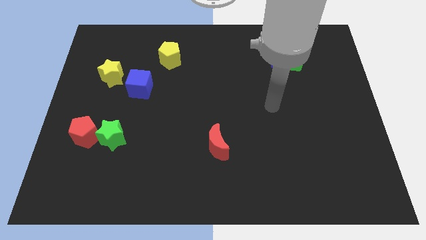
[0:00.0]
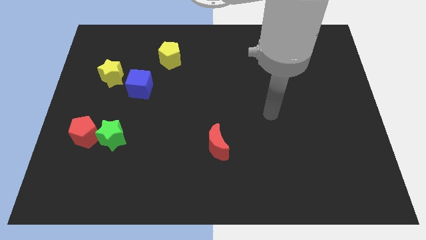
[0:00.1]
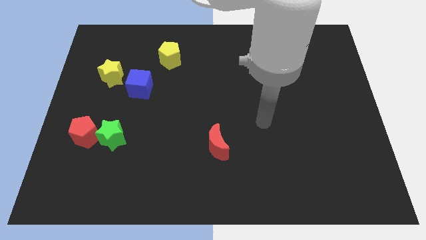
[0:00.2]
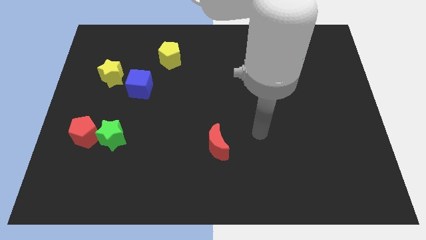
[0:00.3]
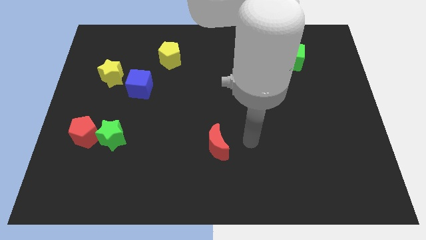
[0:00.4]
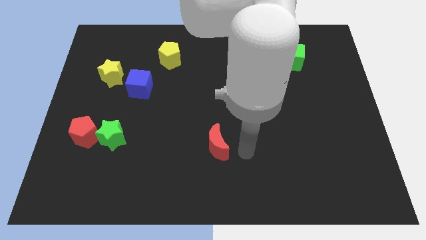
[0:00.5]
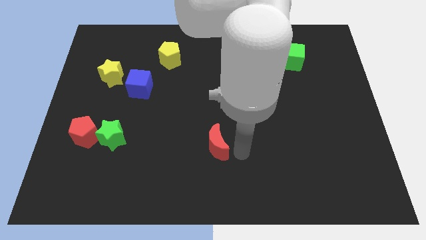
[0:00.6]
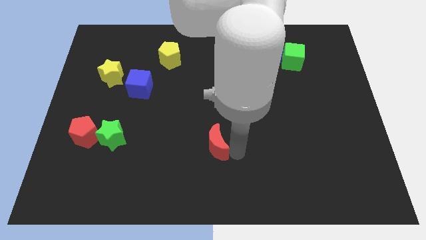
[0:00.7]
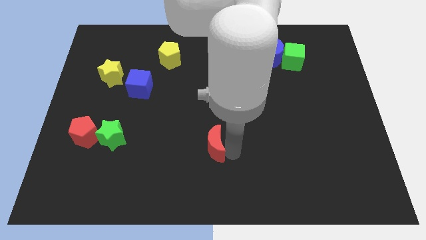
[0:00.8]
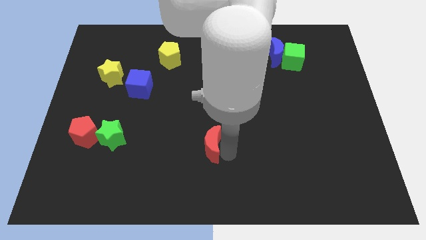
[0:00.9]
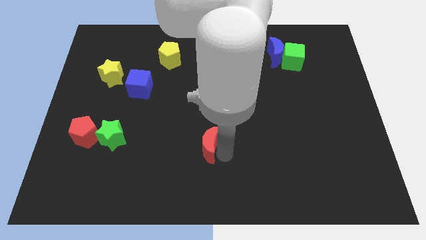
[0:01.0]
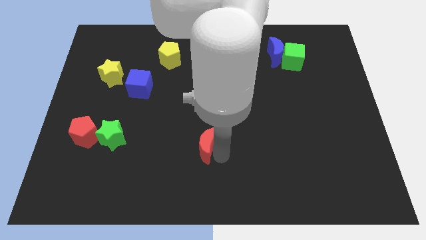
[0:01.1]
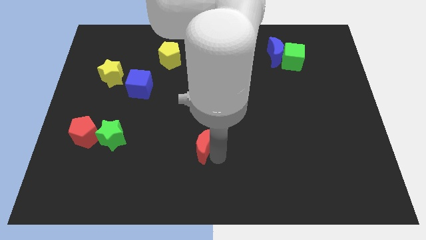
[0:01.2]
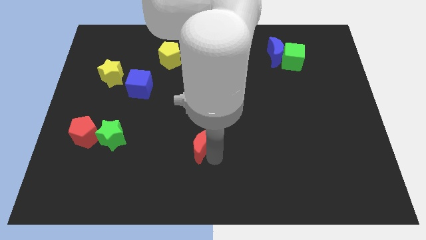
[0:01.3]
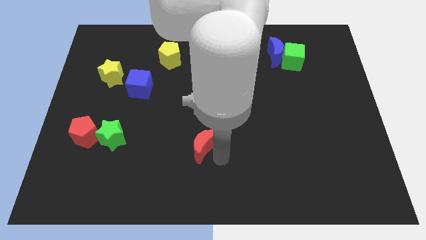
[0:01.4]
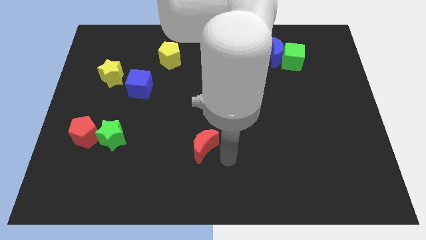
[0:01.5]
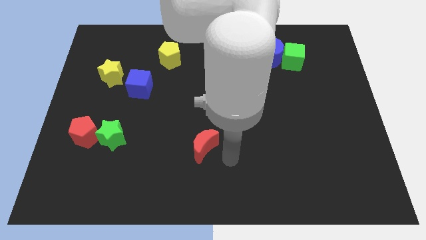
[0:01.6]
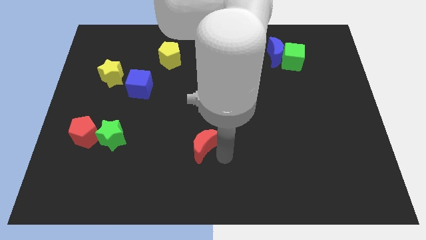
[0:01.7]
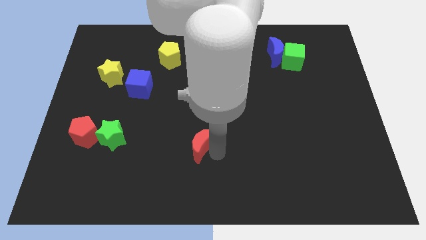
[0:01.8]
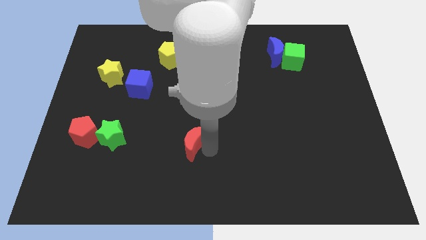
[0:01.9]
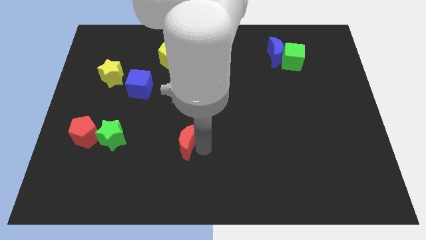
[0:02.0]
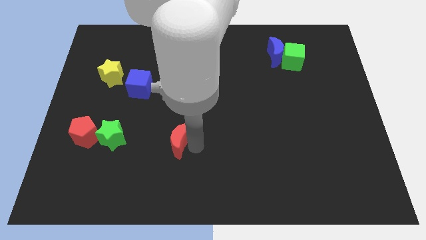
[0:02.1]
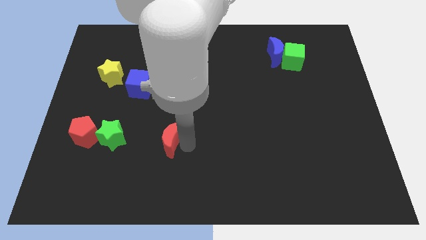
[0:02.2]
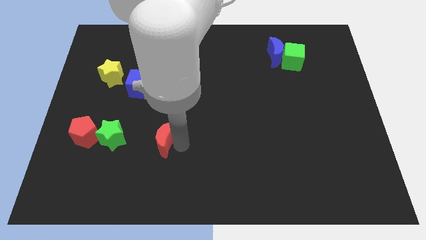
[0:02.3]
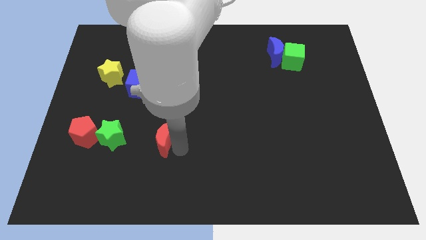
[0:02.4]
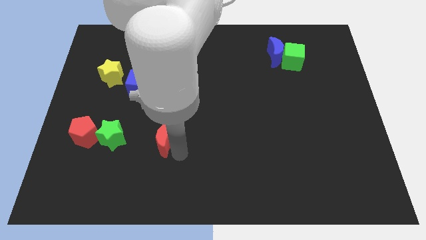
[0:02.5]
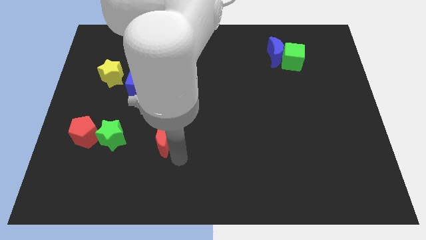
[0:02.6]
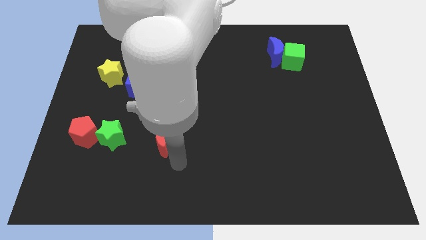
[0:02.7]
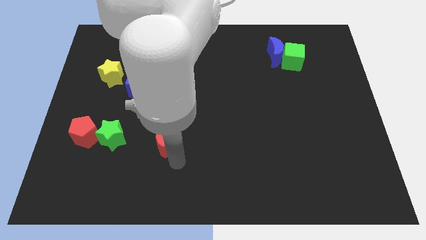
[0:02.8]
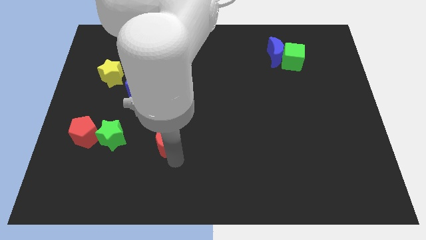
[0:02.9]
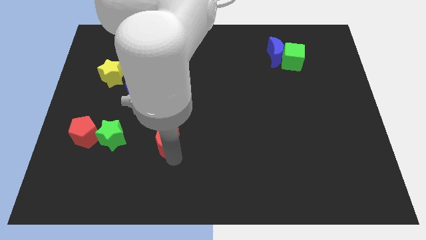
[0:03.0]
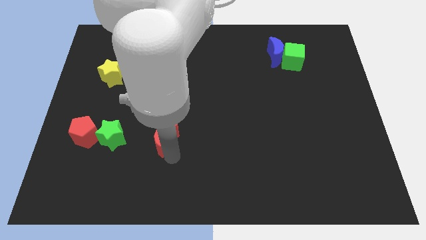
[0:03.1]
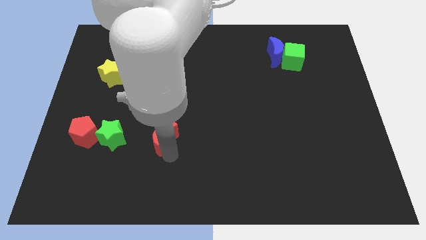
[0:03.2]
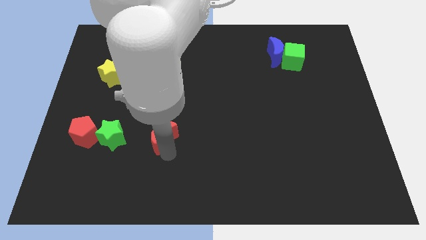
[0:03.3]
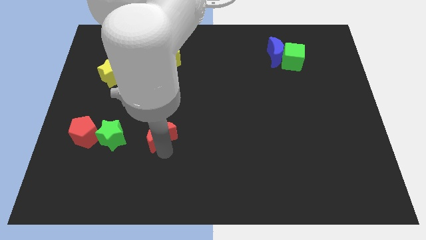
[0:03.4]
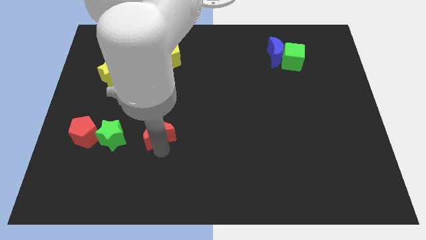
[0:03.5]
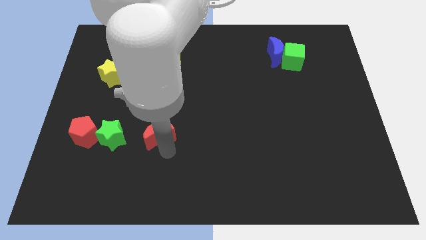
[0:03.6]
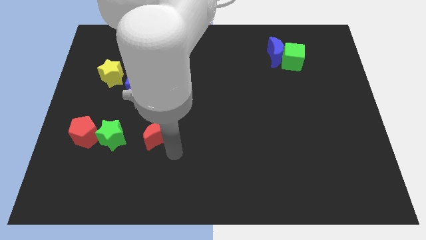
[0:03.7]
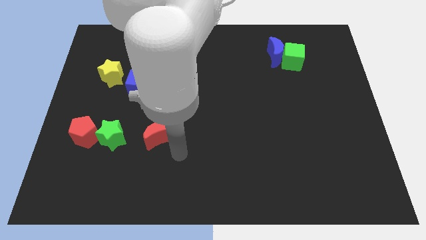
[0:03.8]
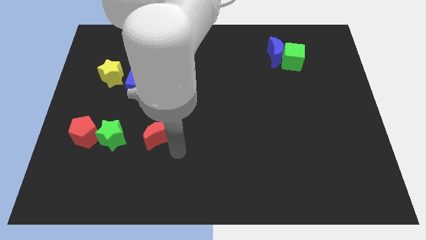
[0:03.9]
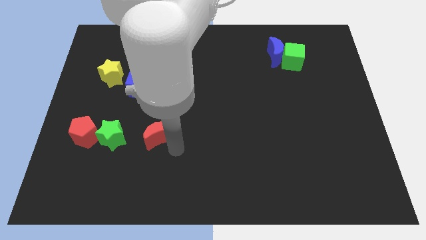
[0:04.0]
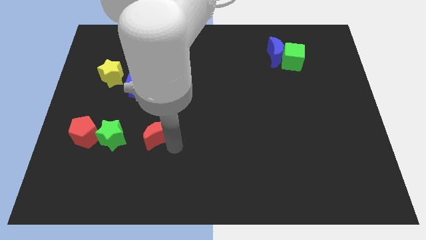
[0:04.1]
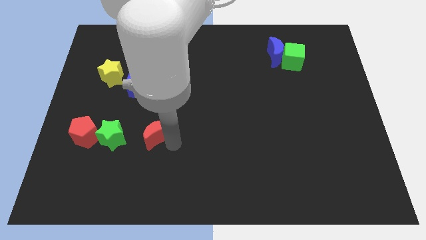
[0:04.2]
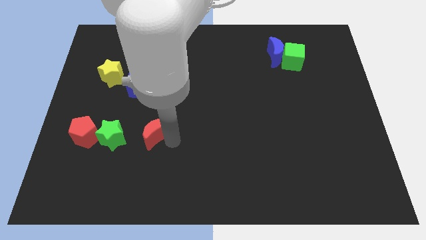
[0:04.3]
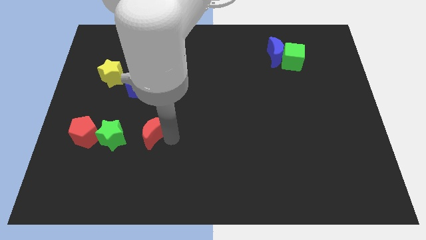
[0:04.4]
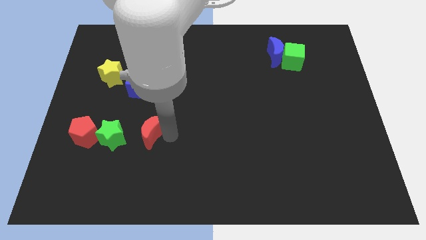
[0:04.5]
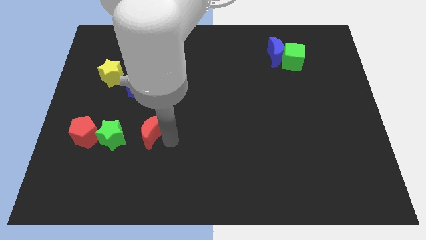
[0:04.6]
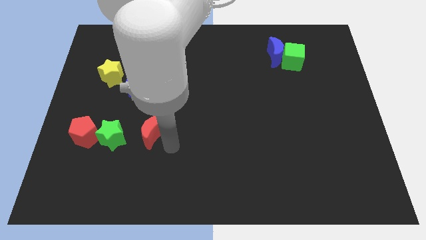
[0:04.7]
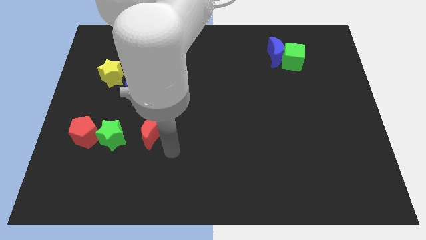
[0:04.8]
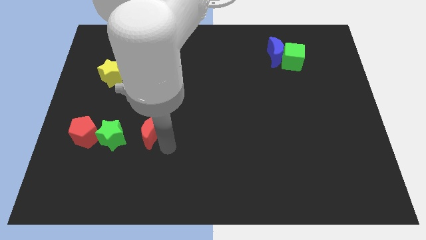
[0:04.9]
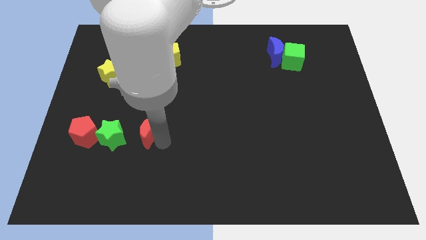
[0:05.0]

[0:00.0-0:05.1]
move the red moon to the top right side of the green star

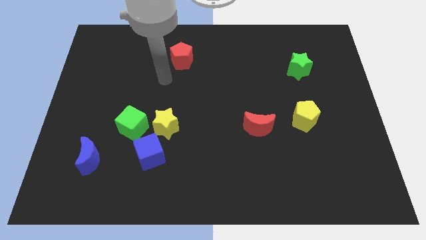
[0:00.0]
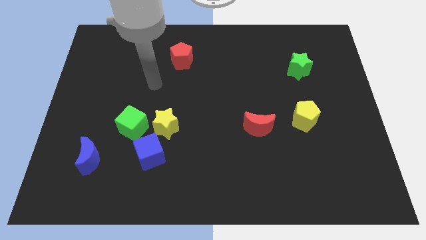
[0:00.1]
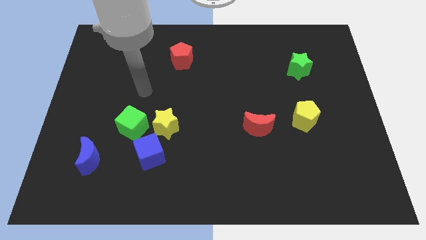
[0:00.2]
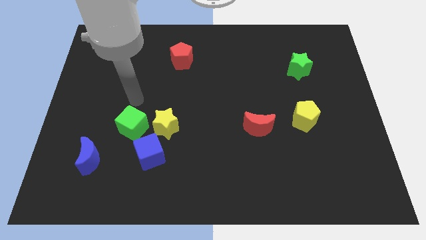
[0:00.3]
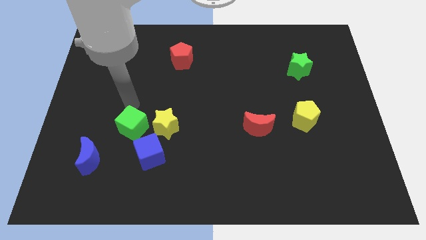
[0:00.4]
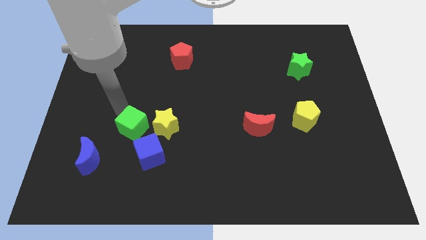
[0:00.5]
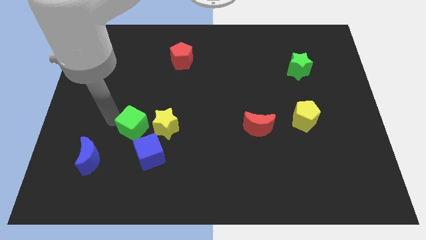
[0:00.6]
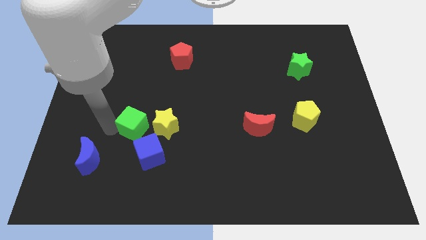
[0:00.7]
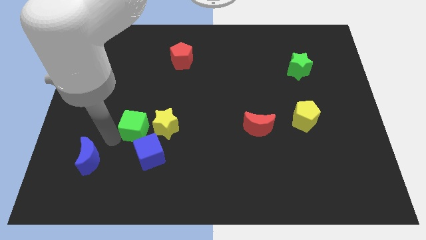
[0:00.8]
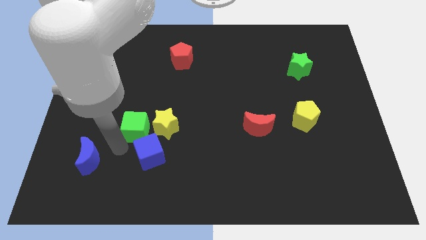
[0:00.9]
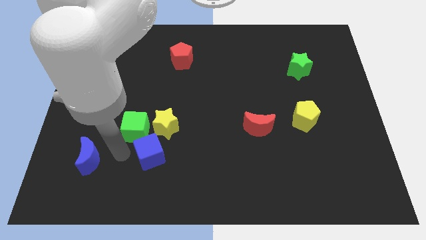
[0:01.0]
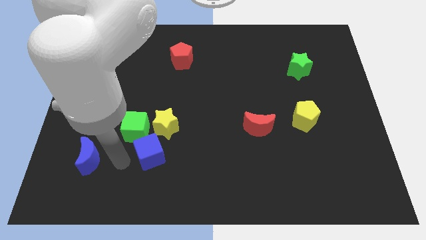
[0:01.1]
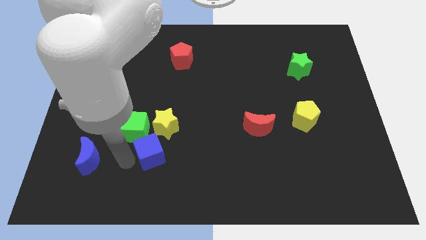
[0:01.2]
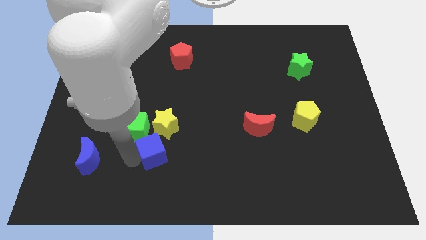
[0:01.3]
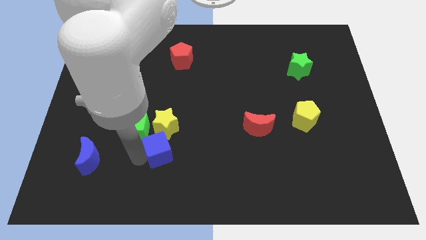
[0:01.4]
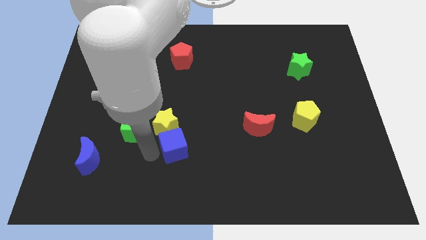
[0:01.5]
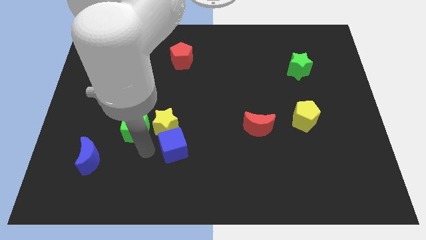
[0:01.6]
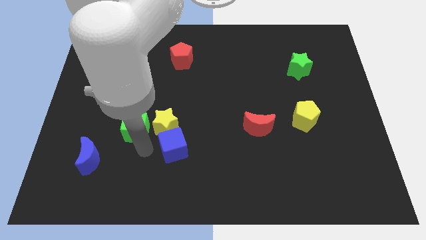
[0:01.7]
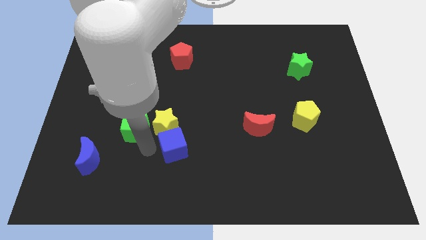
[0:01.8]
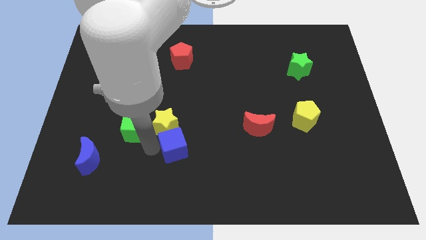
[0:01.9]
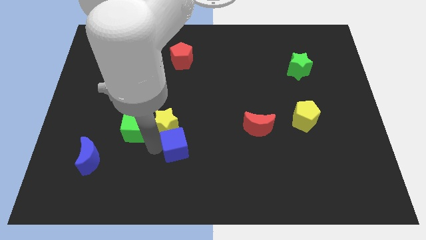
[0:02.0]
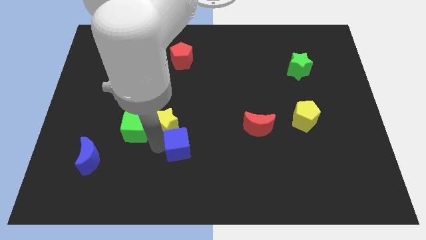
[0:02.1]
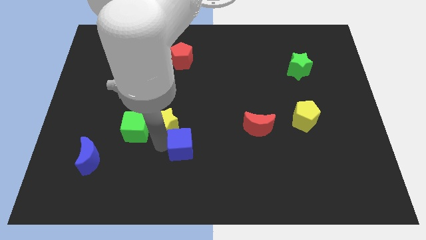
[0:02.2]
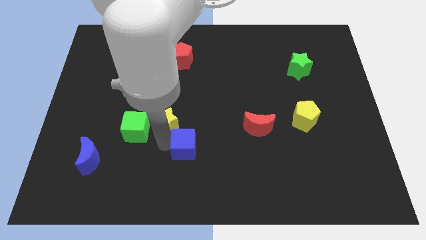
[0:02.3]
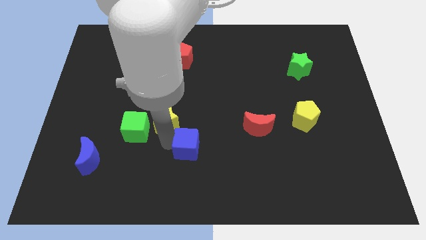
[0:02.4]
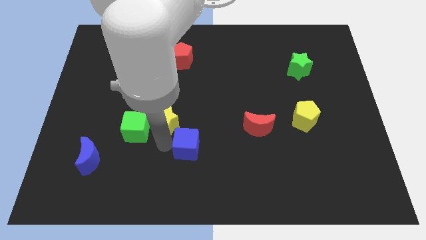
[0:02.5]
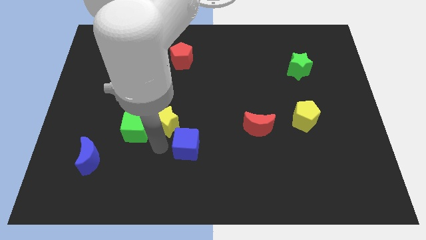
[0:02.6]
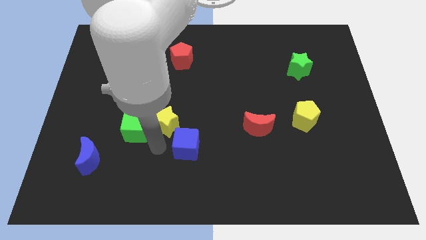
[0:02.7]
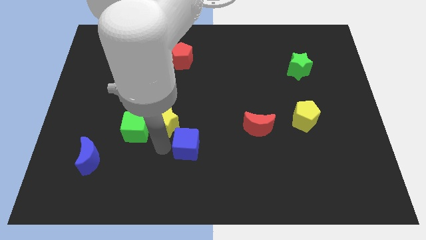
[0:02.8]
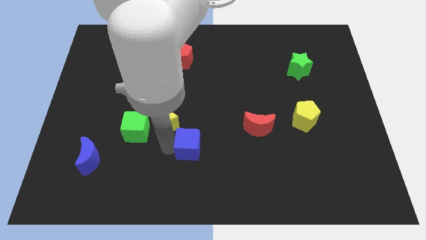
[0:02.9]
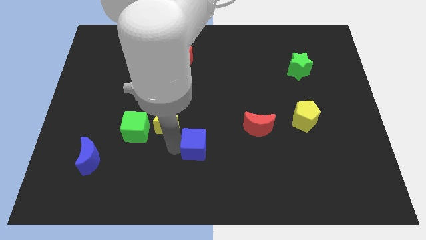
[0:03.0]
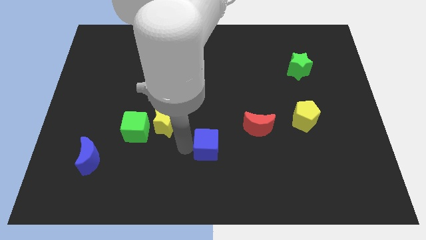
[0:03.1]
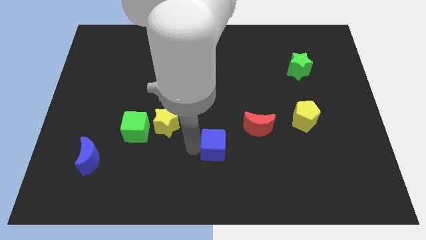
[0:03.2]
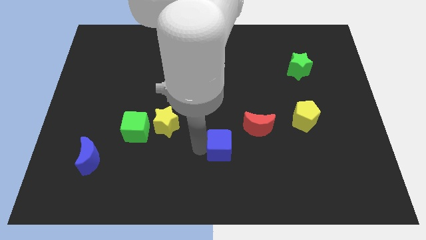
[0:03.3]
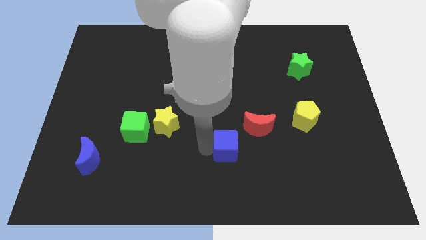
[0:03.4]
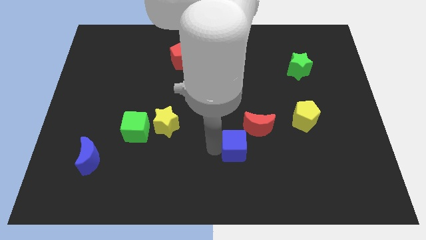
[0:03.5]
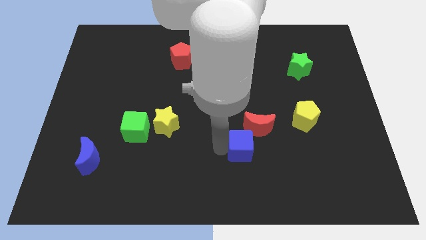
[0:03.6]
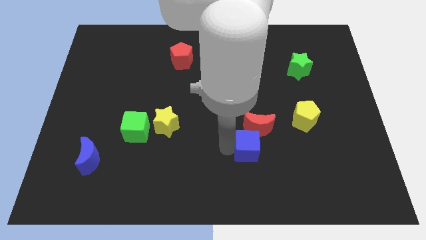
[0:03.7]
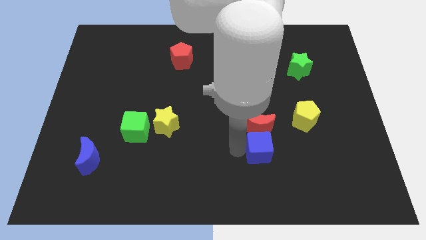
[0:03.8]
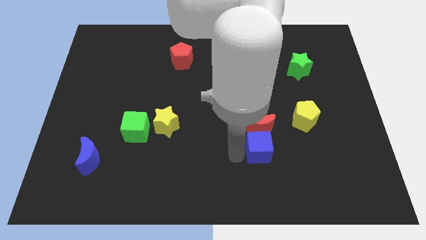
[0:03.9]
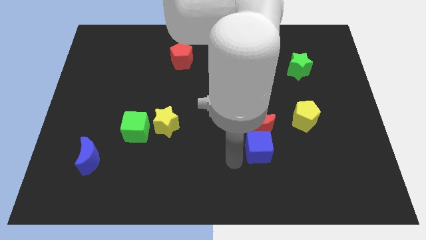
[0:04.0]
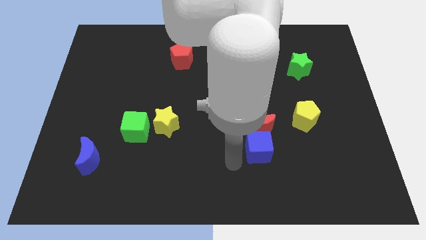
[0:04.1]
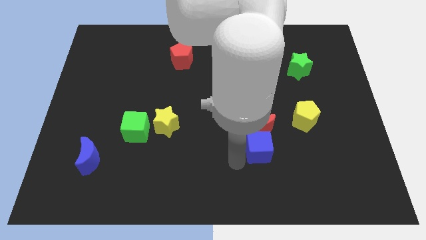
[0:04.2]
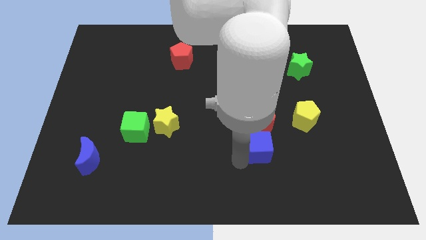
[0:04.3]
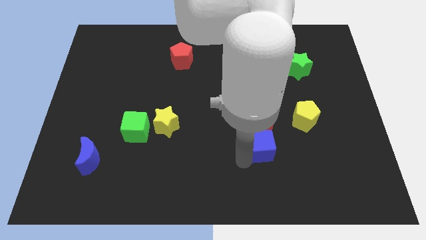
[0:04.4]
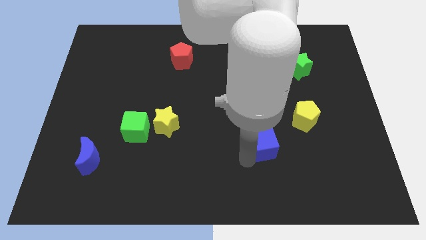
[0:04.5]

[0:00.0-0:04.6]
put the blue cube diagonally down and to the left of the yellow pentagon
